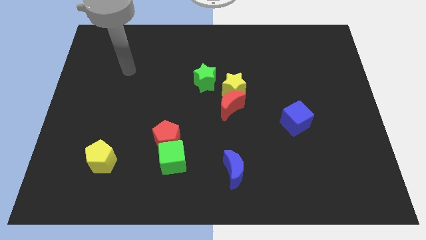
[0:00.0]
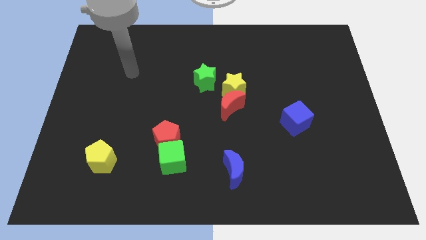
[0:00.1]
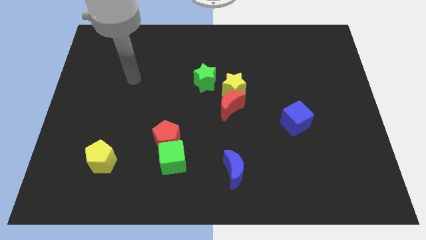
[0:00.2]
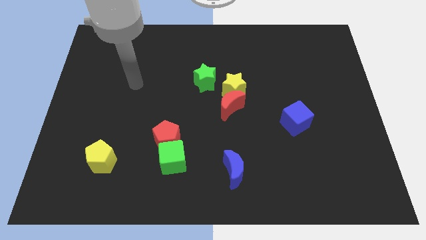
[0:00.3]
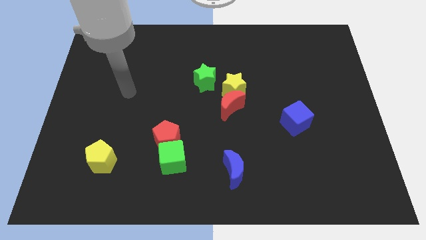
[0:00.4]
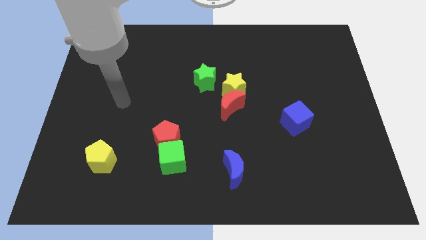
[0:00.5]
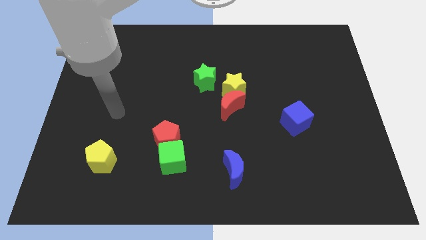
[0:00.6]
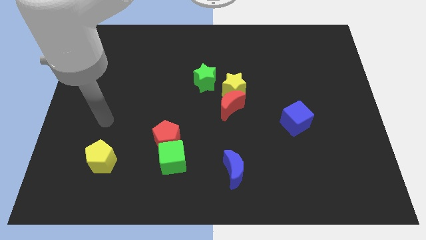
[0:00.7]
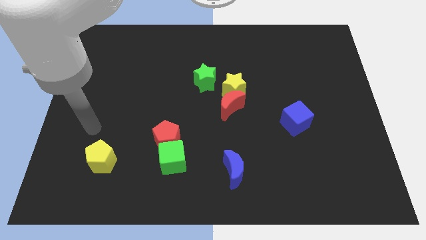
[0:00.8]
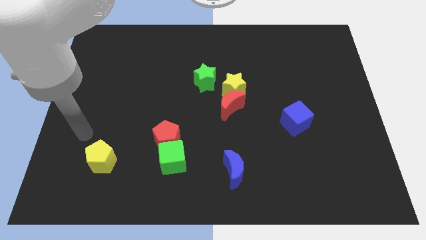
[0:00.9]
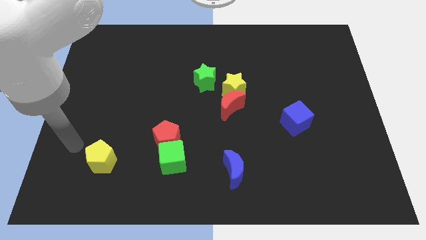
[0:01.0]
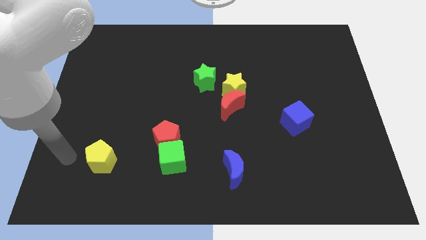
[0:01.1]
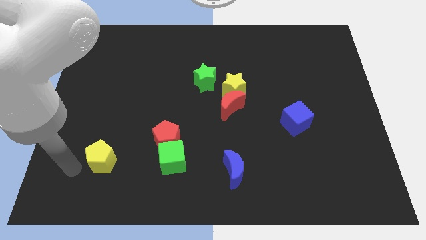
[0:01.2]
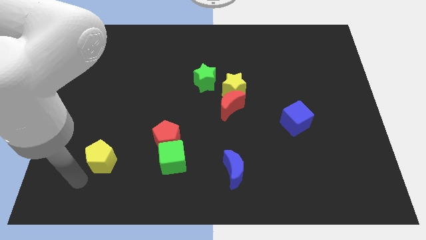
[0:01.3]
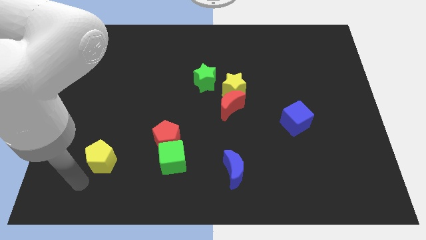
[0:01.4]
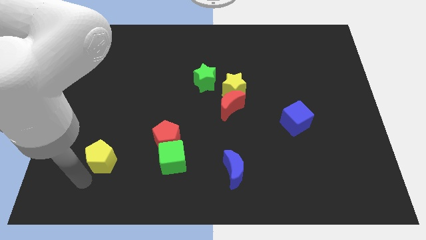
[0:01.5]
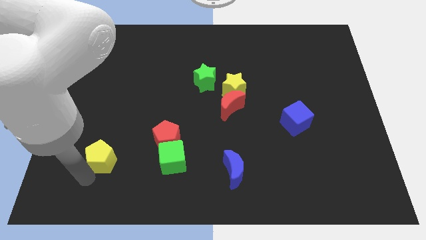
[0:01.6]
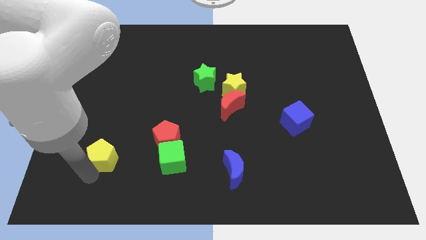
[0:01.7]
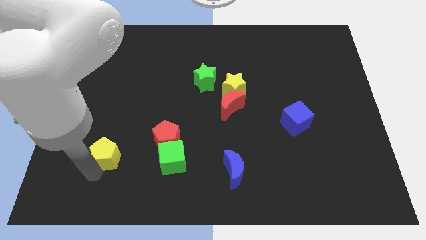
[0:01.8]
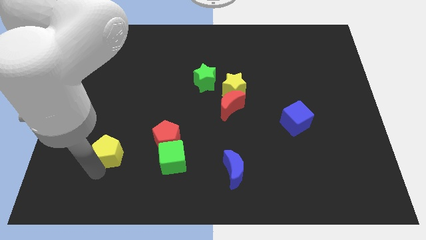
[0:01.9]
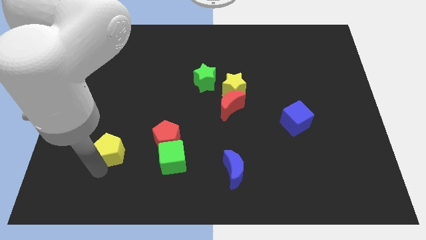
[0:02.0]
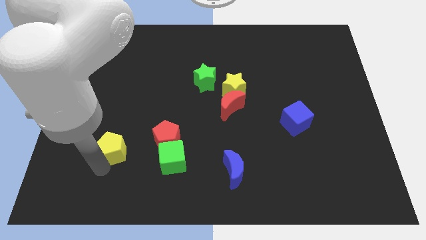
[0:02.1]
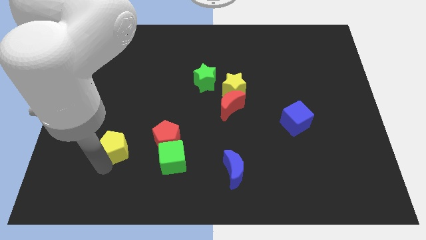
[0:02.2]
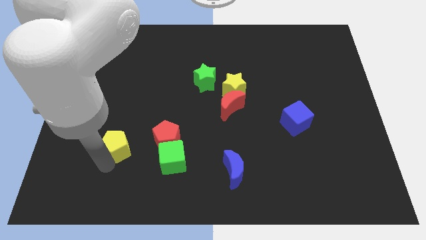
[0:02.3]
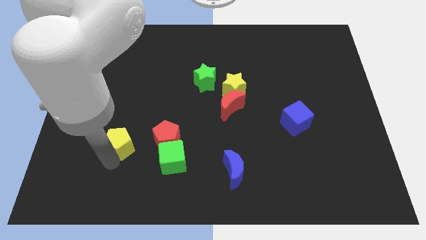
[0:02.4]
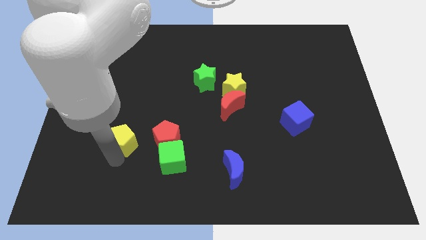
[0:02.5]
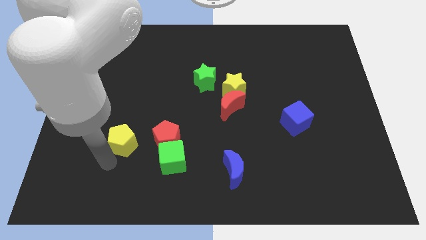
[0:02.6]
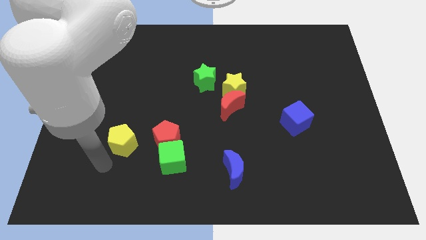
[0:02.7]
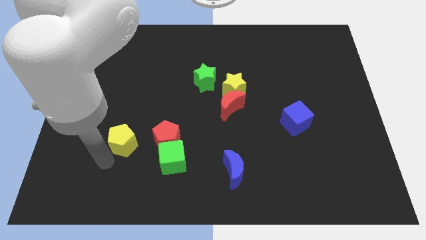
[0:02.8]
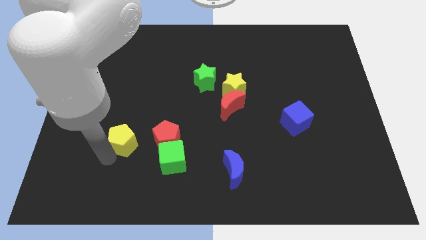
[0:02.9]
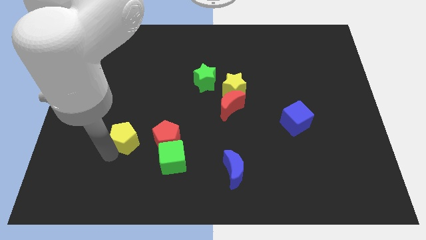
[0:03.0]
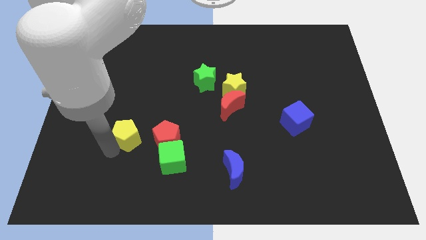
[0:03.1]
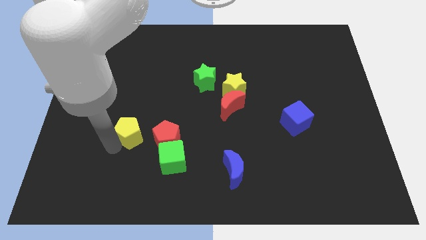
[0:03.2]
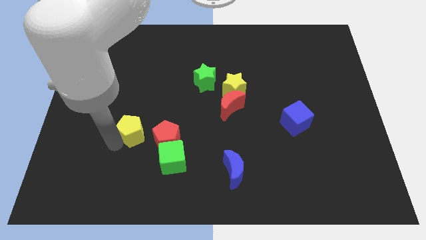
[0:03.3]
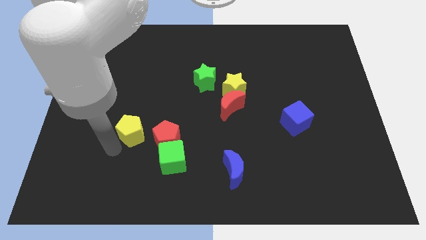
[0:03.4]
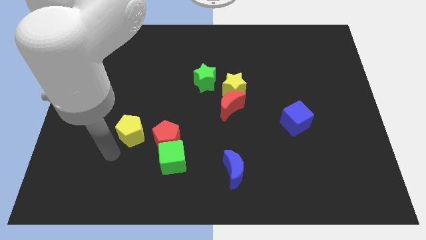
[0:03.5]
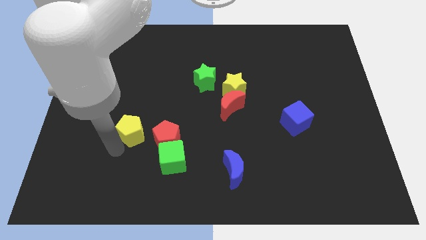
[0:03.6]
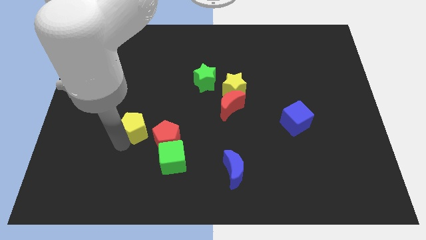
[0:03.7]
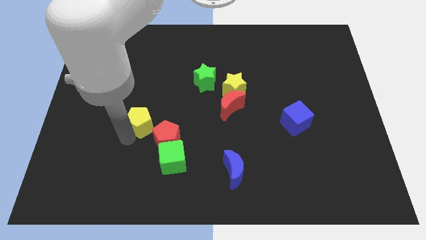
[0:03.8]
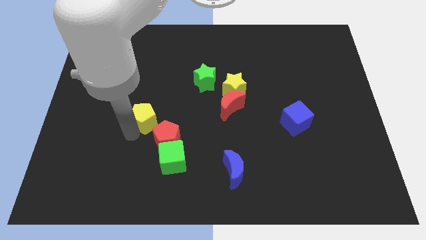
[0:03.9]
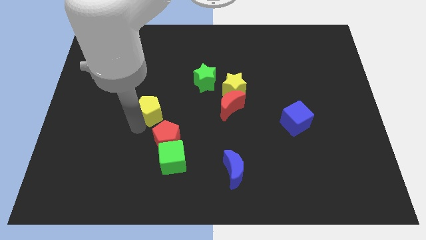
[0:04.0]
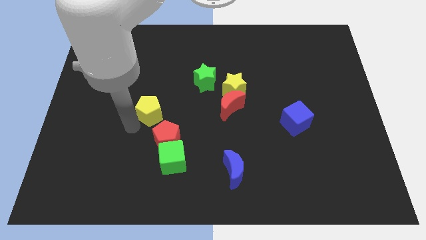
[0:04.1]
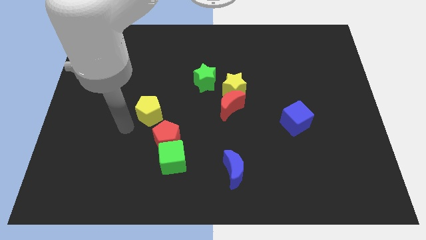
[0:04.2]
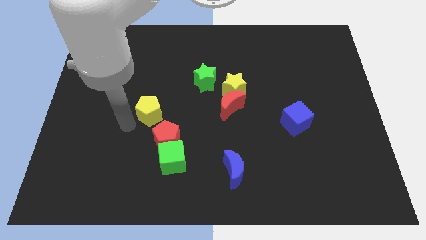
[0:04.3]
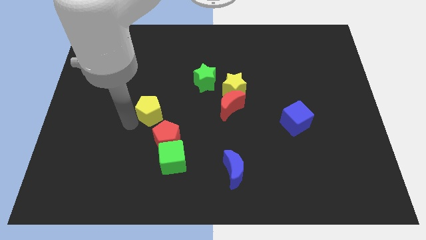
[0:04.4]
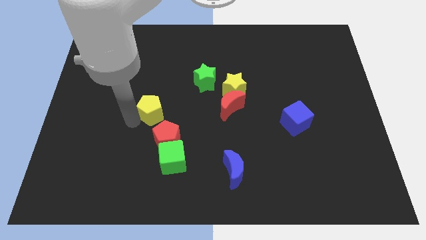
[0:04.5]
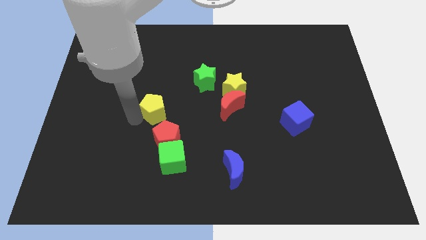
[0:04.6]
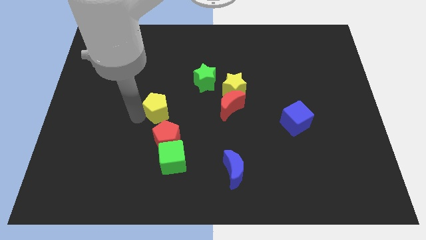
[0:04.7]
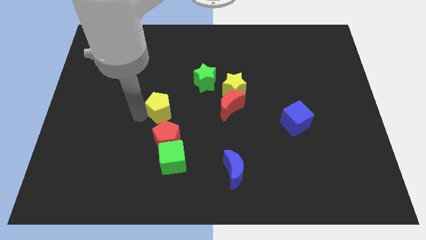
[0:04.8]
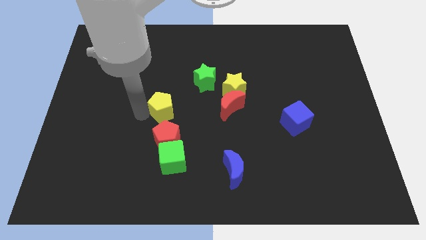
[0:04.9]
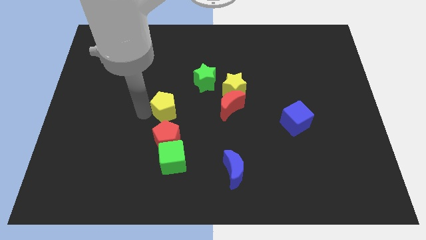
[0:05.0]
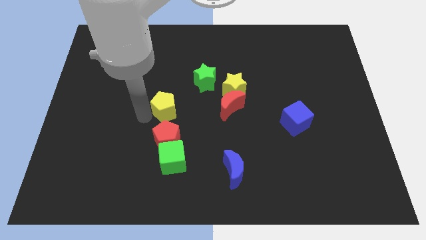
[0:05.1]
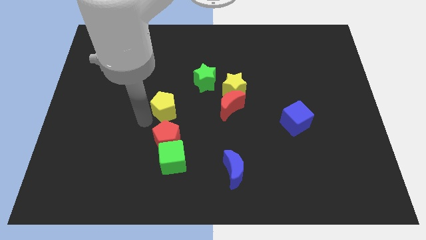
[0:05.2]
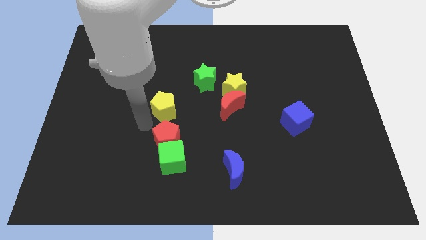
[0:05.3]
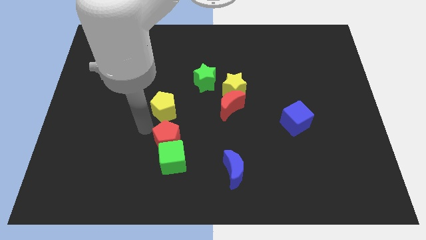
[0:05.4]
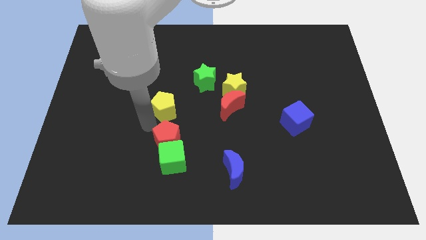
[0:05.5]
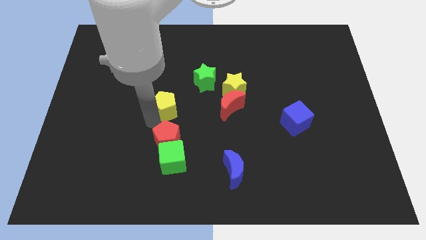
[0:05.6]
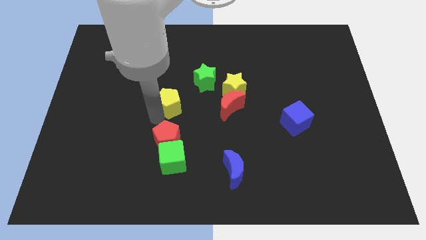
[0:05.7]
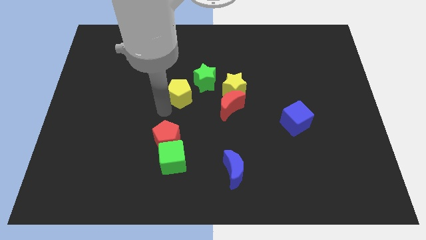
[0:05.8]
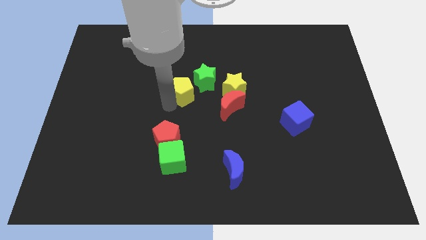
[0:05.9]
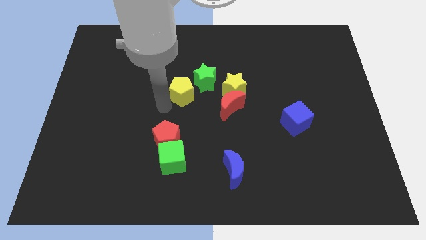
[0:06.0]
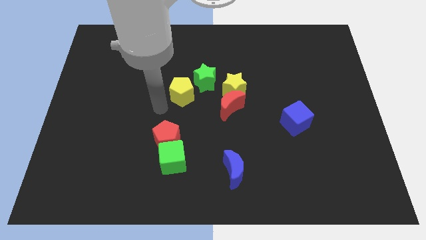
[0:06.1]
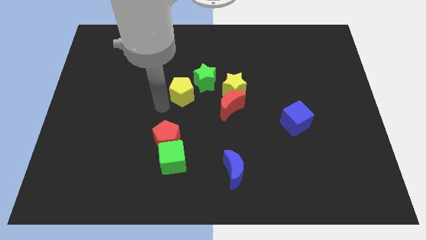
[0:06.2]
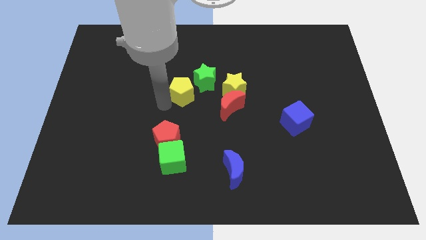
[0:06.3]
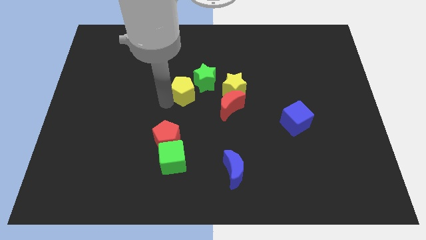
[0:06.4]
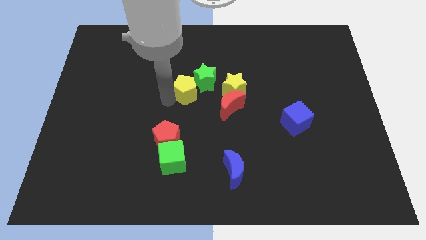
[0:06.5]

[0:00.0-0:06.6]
move the yellow pentagon to the green star
